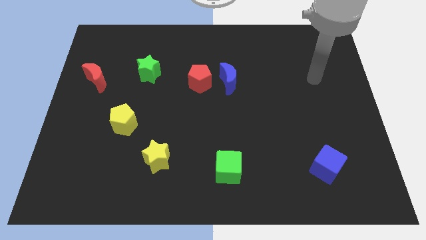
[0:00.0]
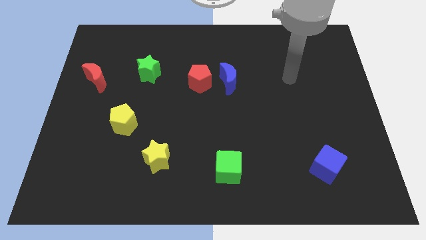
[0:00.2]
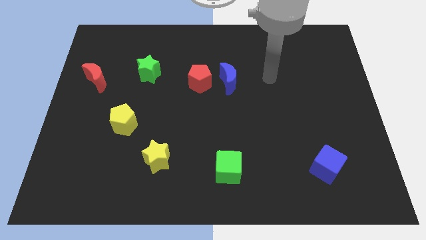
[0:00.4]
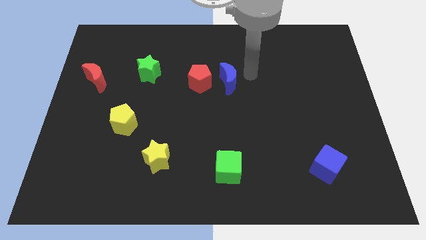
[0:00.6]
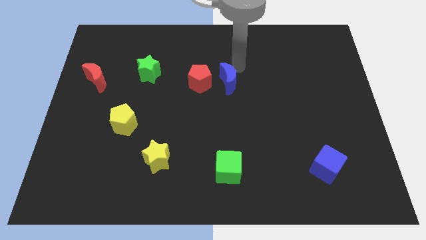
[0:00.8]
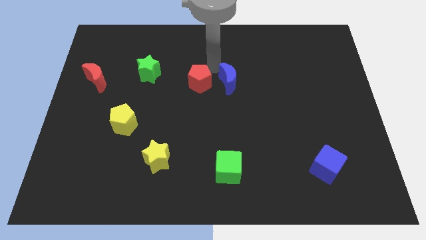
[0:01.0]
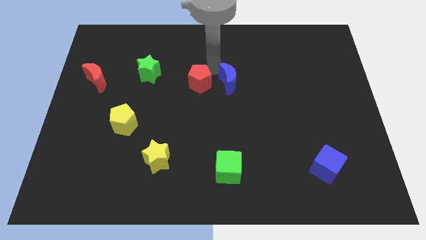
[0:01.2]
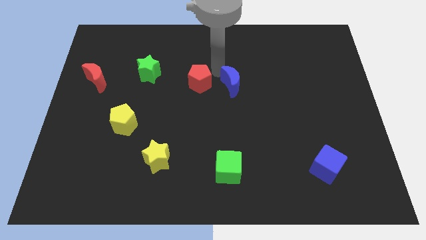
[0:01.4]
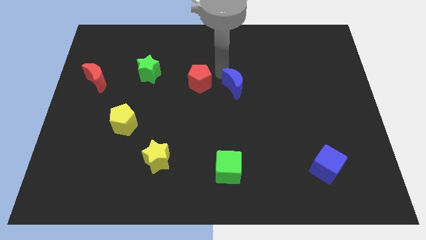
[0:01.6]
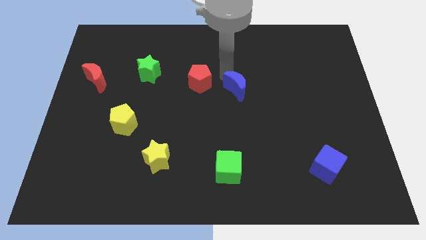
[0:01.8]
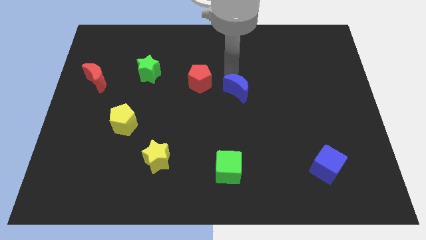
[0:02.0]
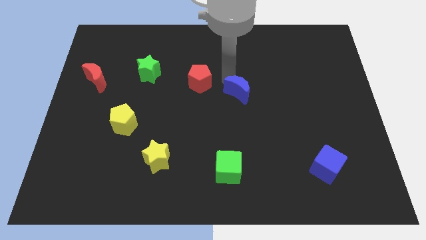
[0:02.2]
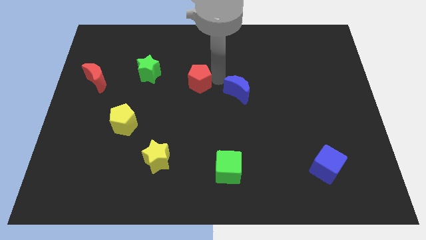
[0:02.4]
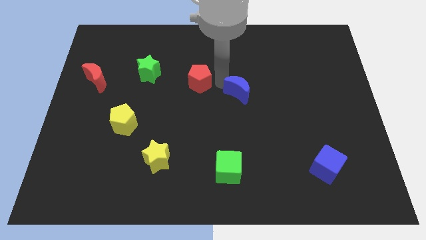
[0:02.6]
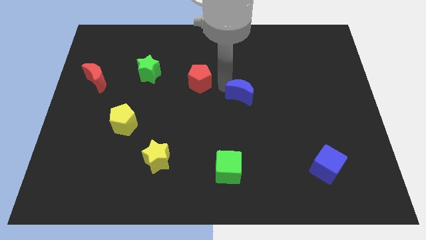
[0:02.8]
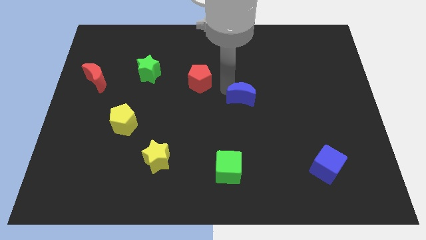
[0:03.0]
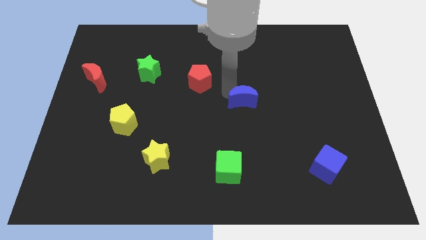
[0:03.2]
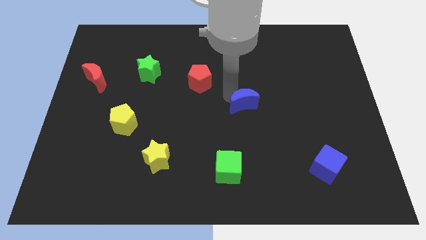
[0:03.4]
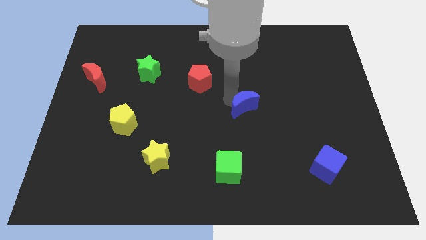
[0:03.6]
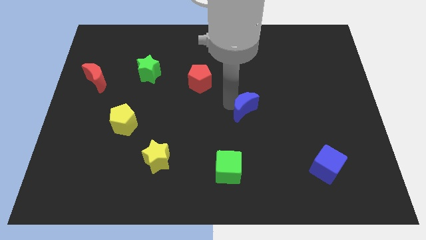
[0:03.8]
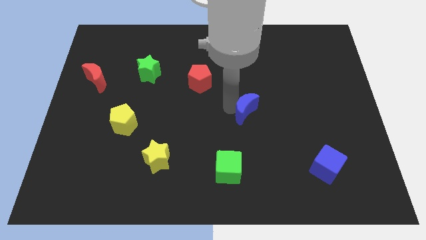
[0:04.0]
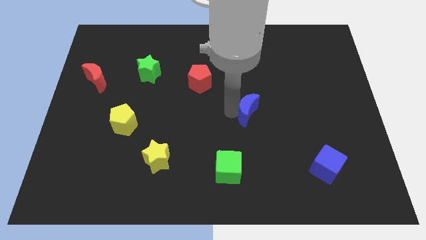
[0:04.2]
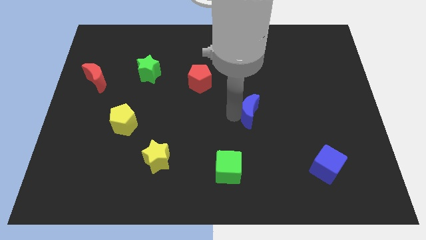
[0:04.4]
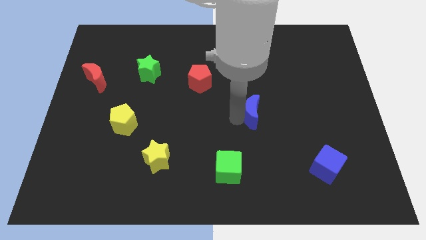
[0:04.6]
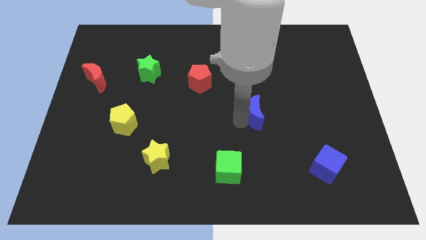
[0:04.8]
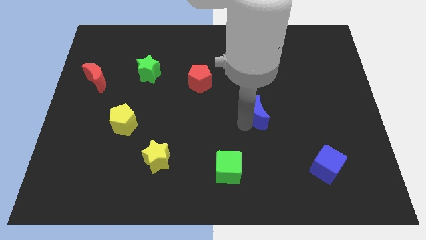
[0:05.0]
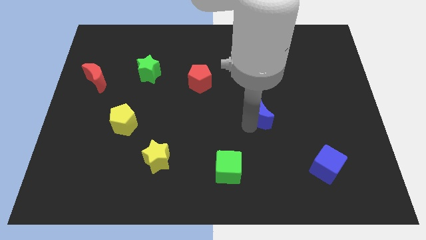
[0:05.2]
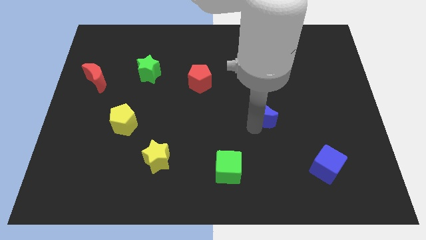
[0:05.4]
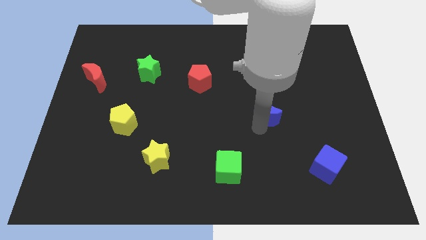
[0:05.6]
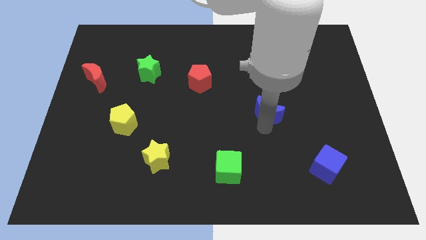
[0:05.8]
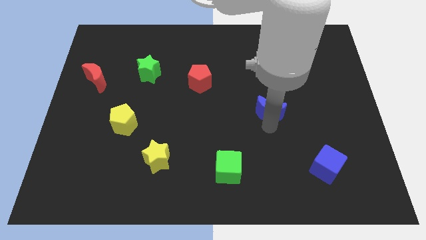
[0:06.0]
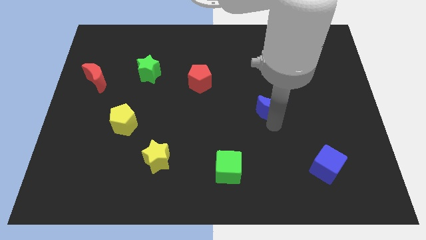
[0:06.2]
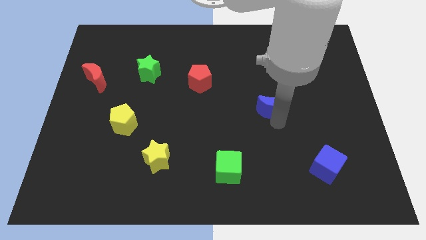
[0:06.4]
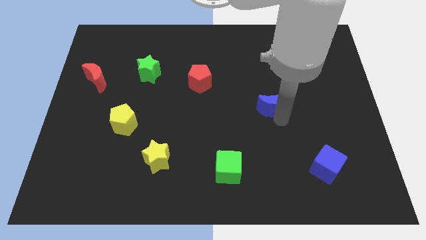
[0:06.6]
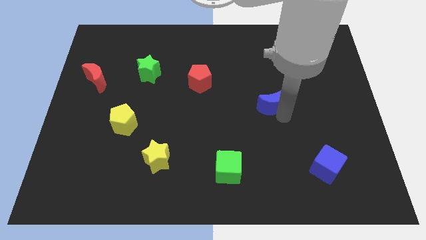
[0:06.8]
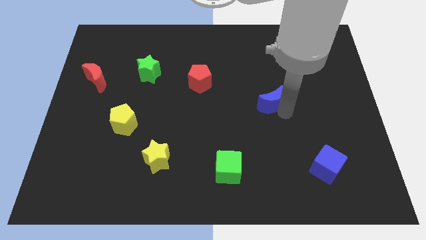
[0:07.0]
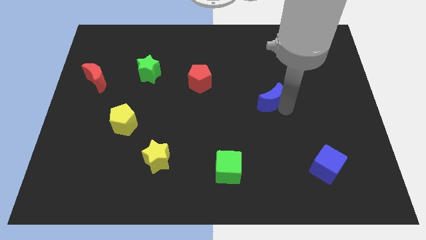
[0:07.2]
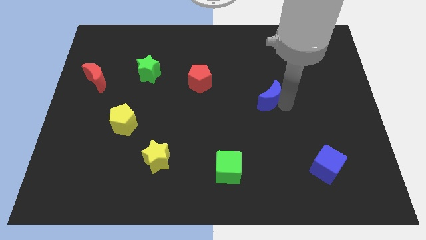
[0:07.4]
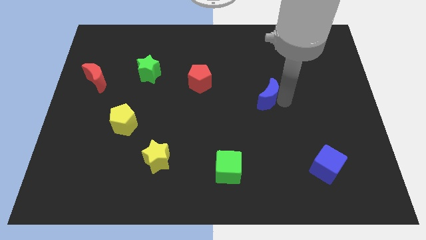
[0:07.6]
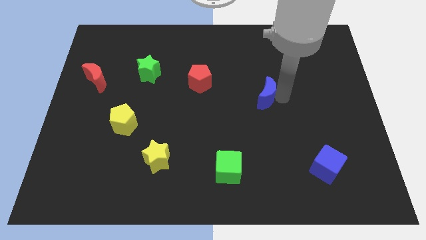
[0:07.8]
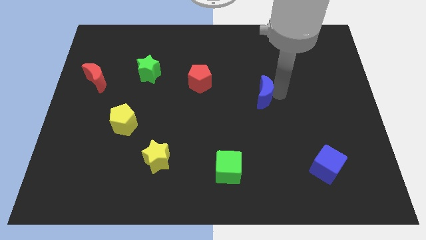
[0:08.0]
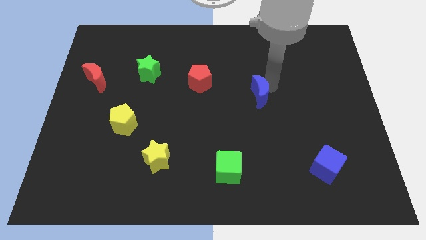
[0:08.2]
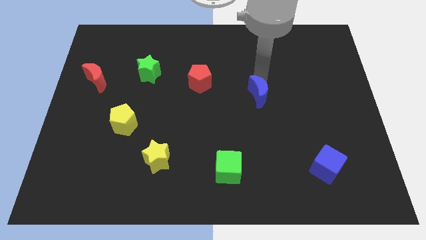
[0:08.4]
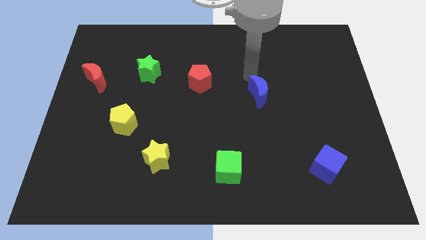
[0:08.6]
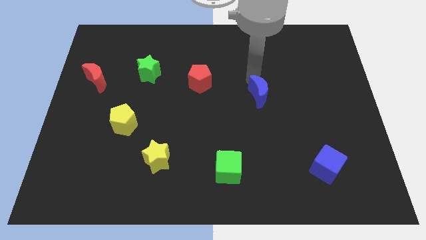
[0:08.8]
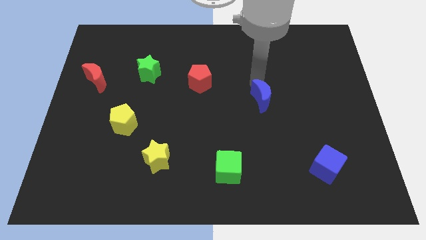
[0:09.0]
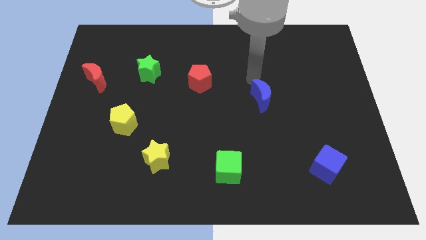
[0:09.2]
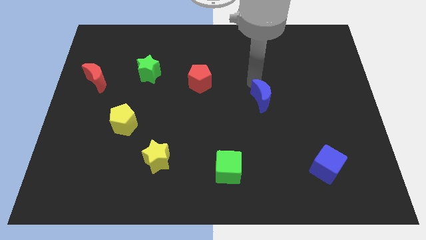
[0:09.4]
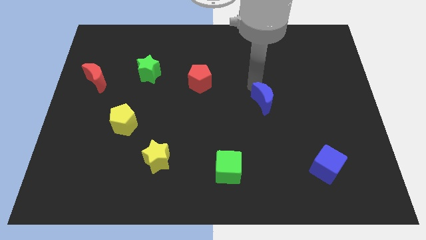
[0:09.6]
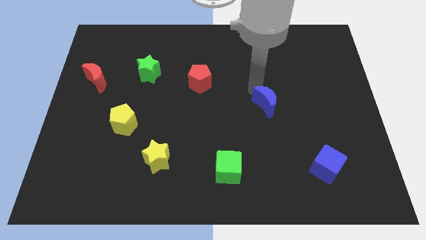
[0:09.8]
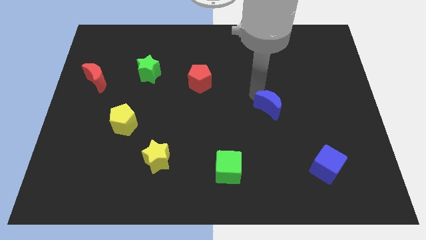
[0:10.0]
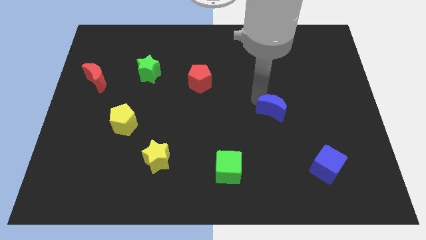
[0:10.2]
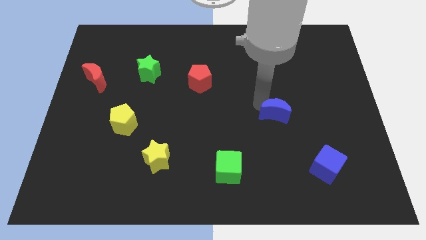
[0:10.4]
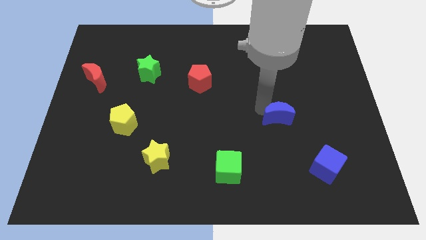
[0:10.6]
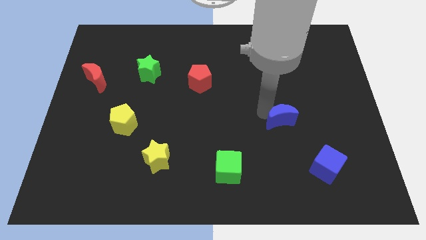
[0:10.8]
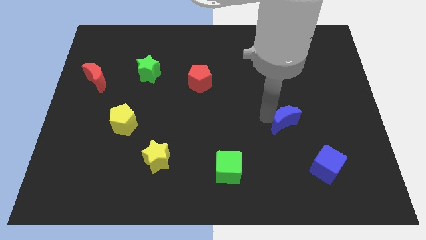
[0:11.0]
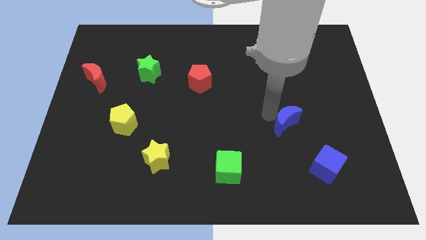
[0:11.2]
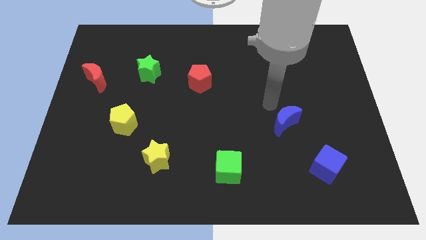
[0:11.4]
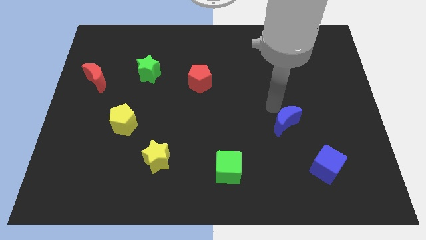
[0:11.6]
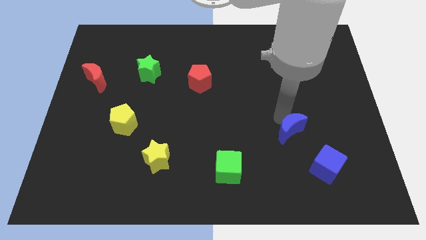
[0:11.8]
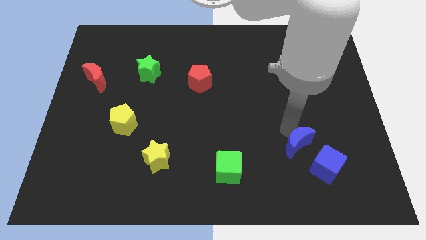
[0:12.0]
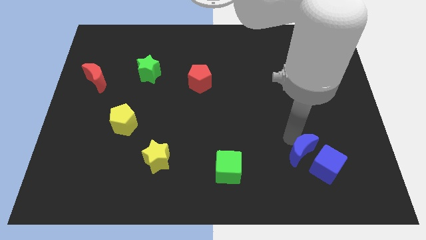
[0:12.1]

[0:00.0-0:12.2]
move the blue moon towards the blue cube
